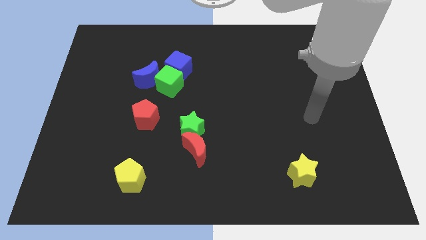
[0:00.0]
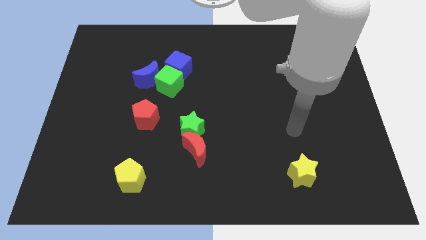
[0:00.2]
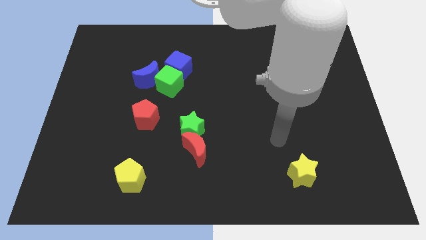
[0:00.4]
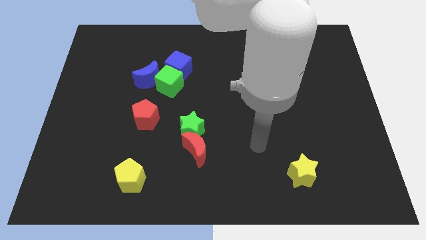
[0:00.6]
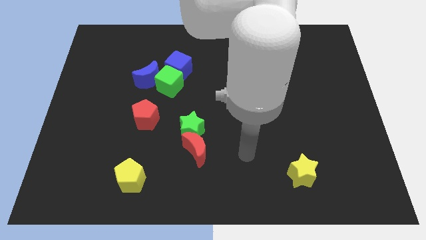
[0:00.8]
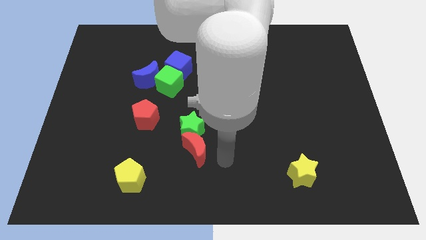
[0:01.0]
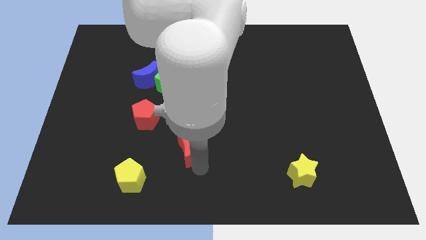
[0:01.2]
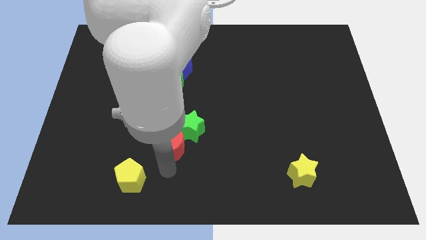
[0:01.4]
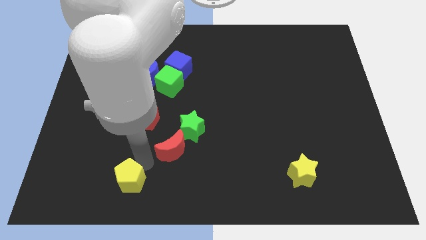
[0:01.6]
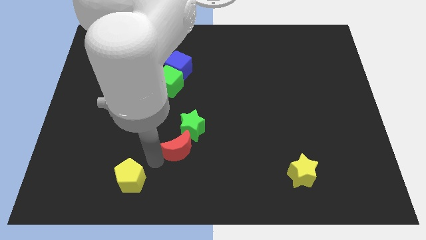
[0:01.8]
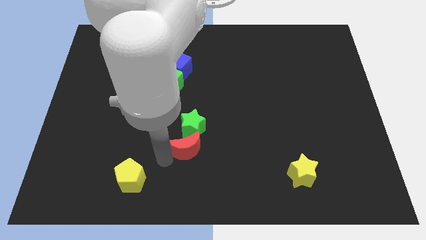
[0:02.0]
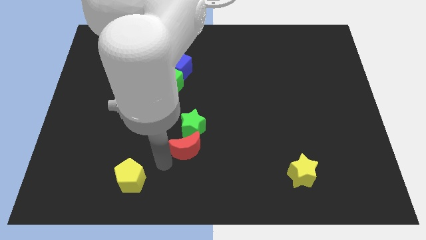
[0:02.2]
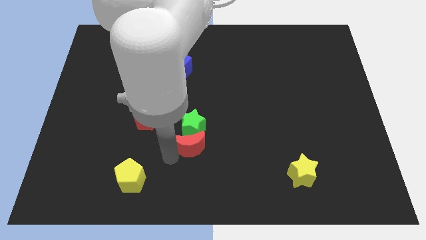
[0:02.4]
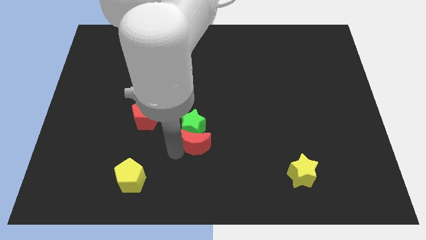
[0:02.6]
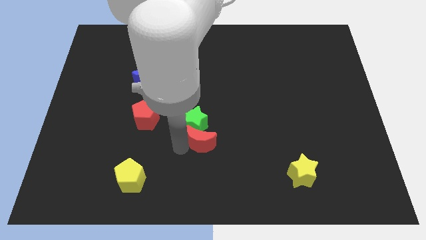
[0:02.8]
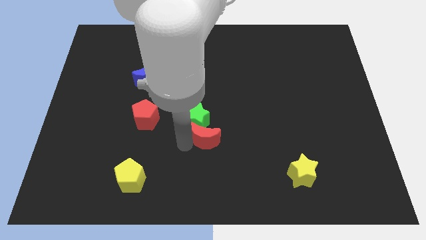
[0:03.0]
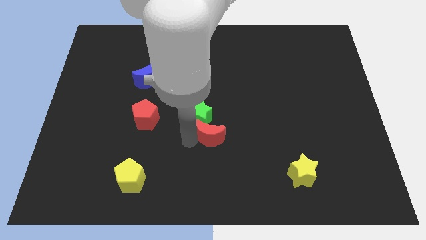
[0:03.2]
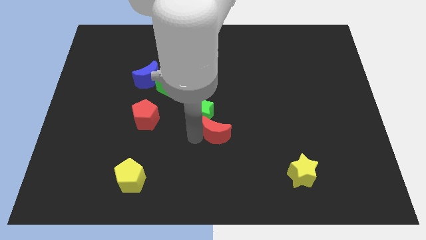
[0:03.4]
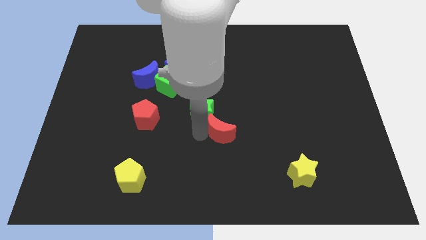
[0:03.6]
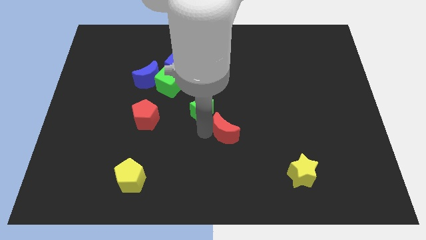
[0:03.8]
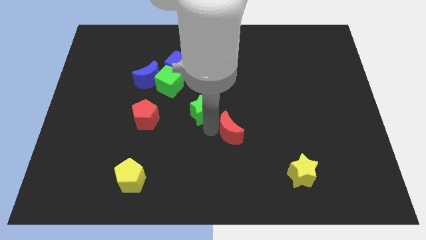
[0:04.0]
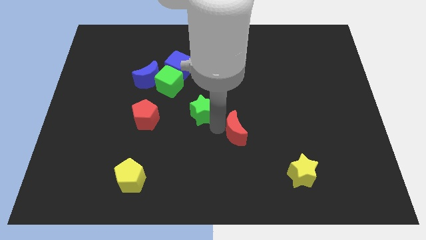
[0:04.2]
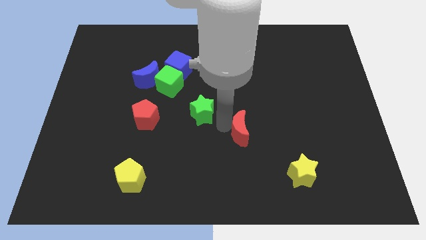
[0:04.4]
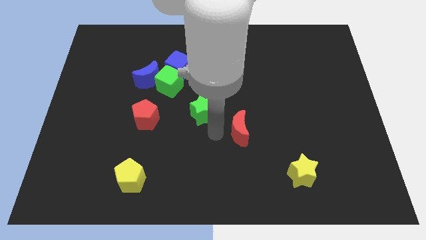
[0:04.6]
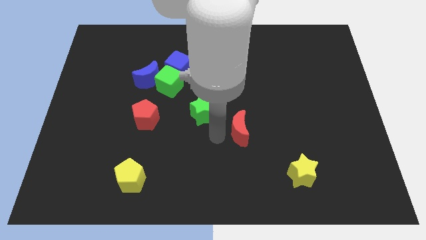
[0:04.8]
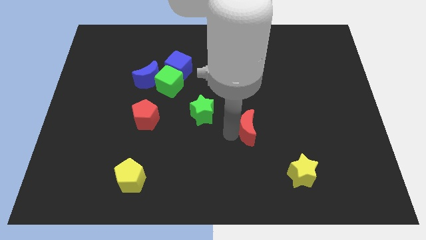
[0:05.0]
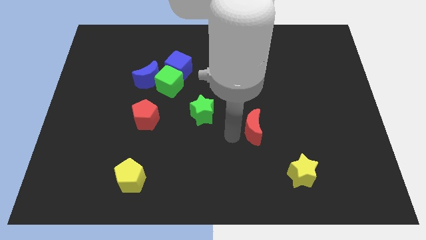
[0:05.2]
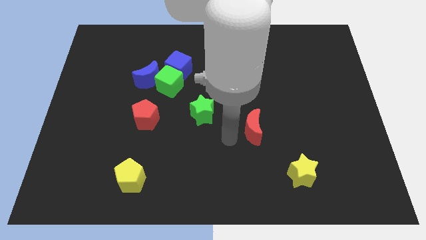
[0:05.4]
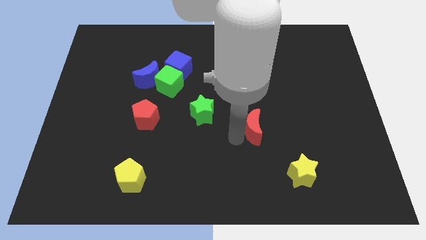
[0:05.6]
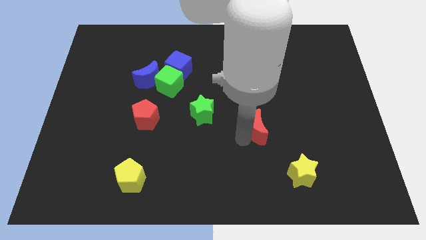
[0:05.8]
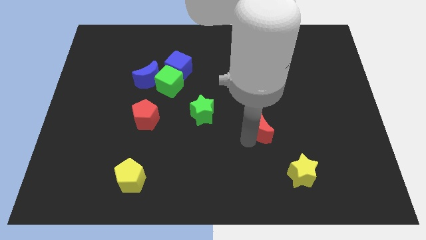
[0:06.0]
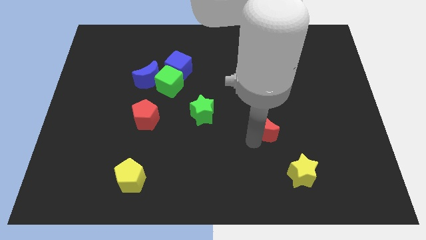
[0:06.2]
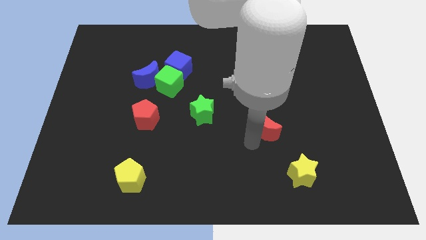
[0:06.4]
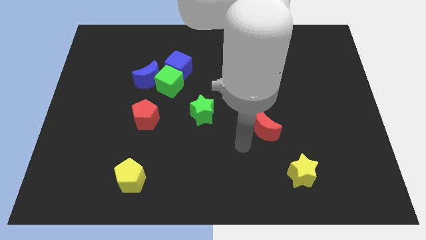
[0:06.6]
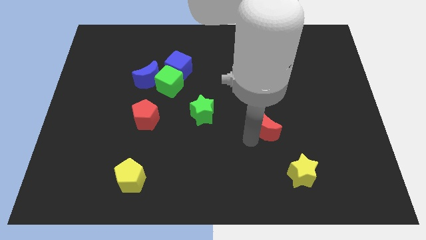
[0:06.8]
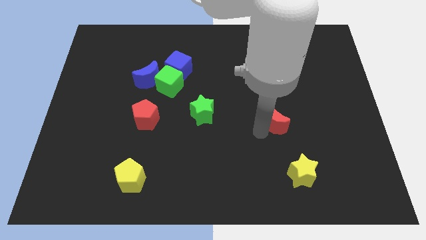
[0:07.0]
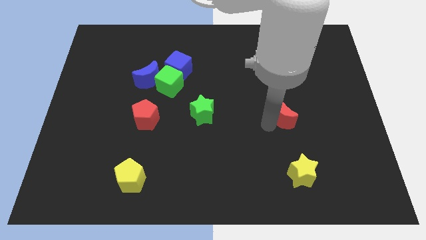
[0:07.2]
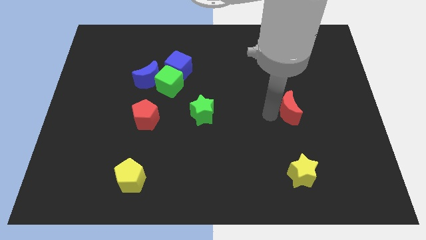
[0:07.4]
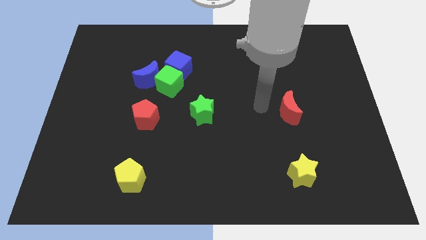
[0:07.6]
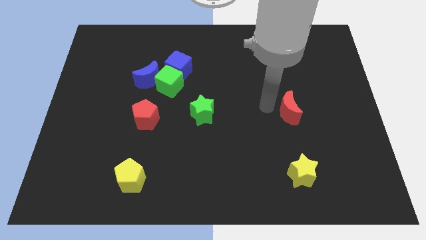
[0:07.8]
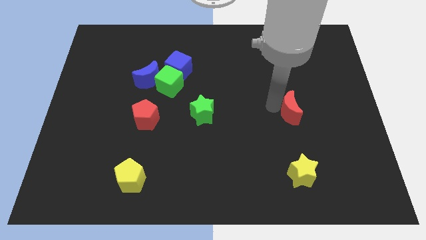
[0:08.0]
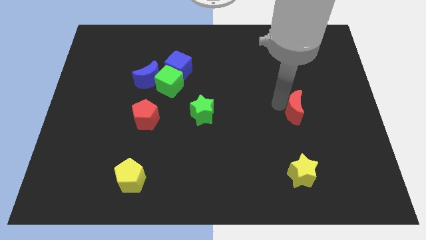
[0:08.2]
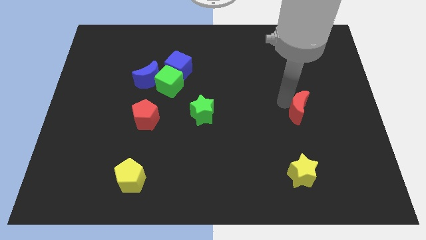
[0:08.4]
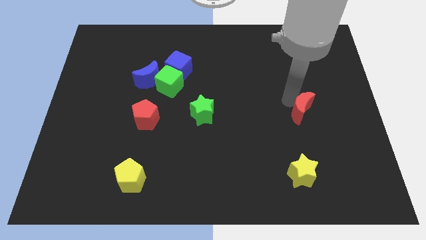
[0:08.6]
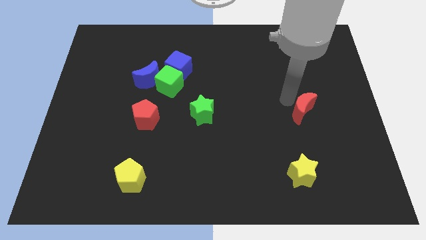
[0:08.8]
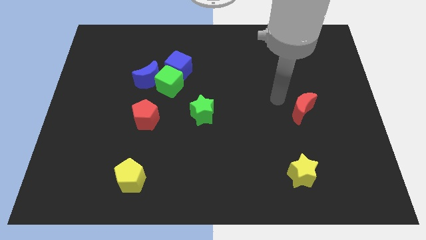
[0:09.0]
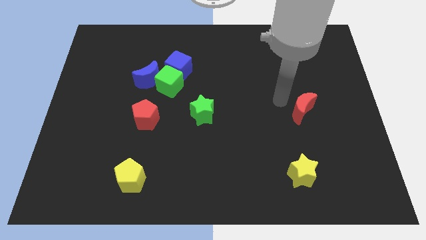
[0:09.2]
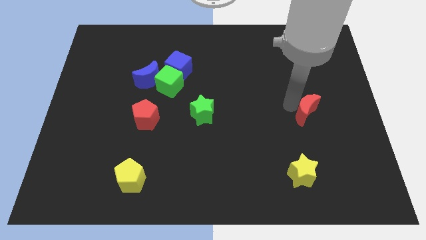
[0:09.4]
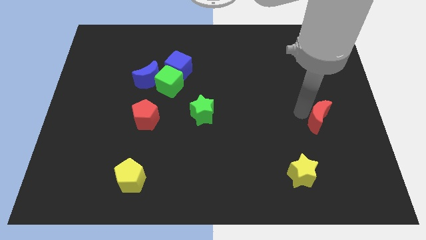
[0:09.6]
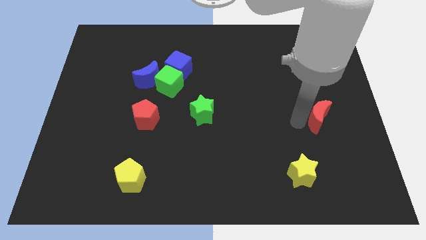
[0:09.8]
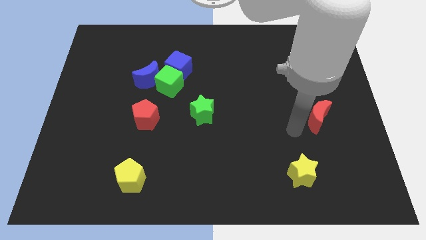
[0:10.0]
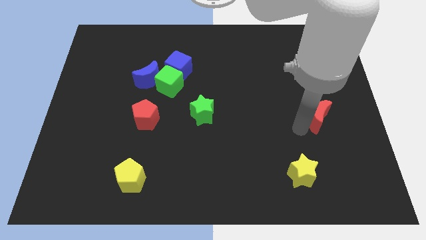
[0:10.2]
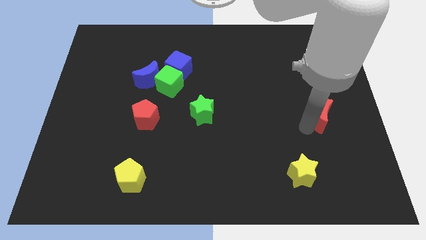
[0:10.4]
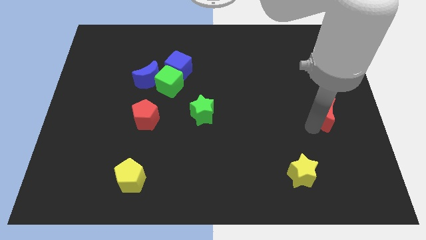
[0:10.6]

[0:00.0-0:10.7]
move the red moon to the right side of the board
